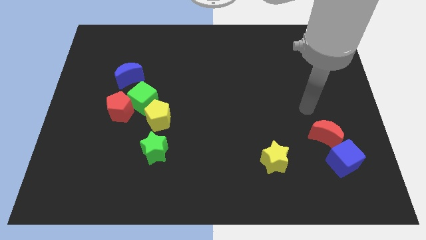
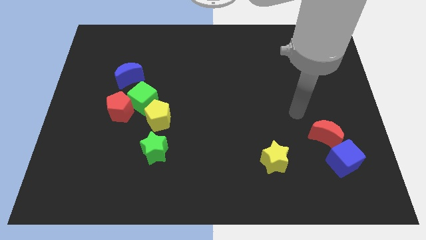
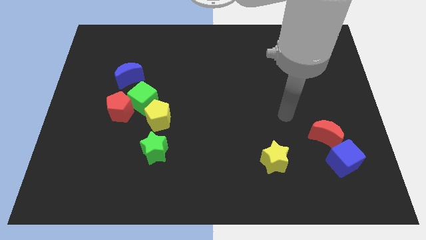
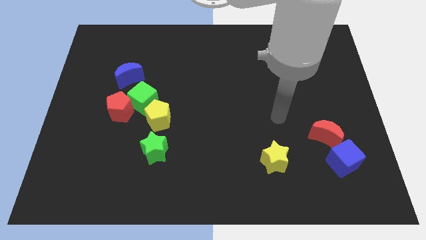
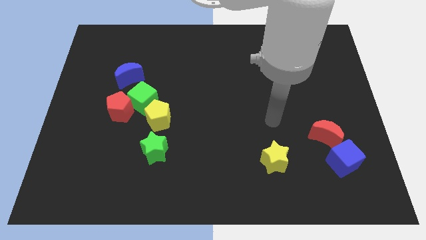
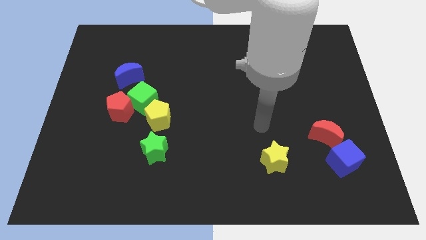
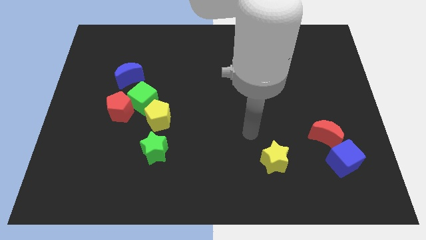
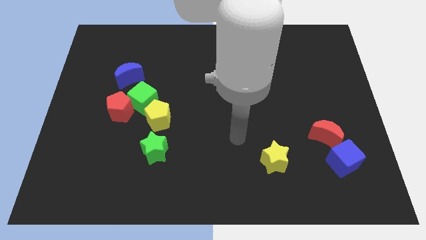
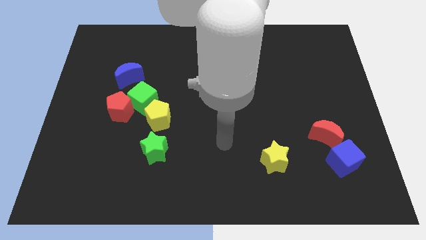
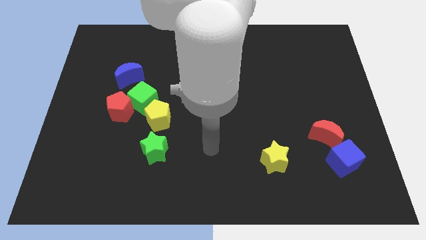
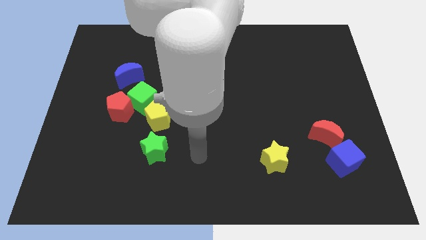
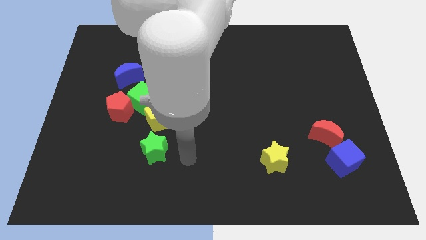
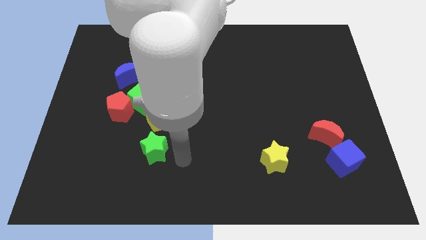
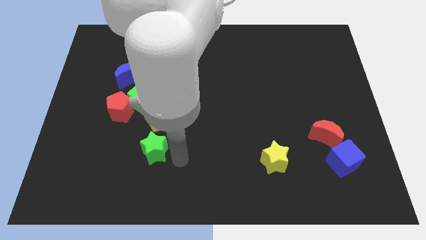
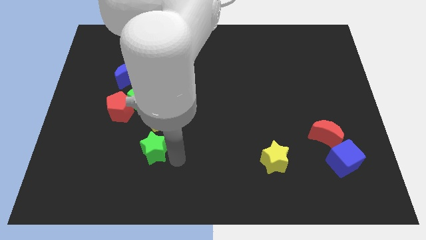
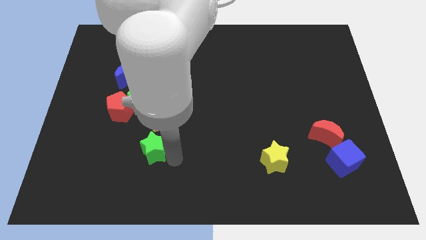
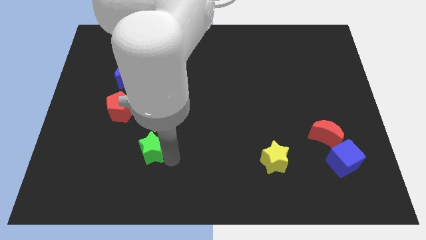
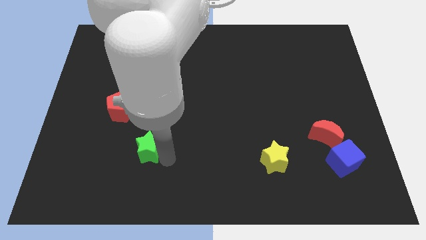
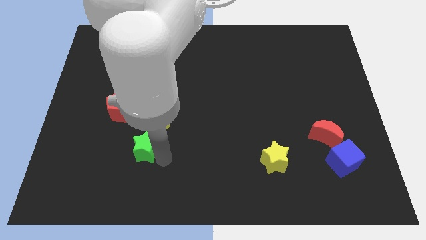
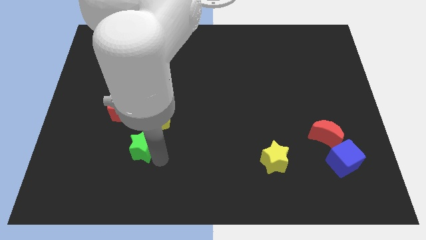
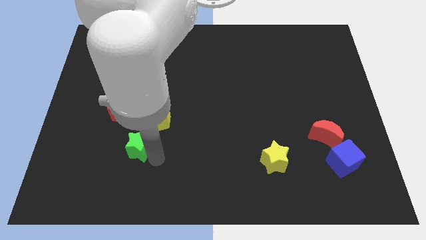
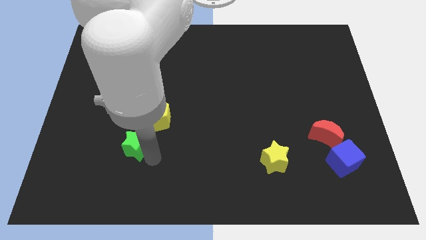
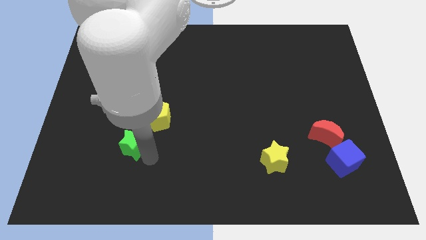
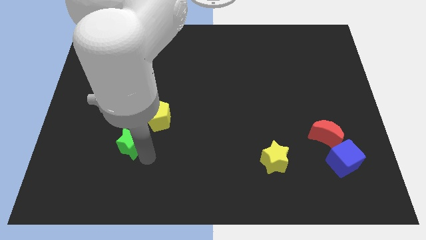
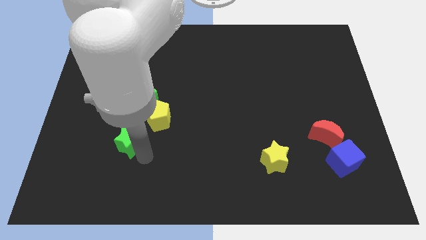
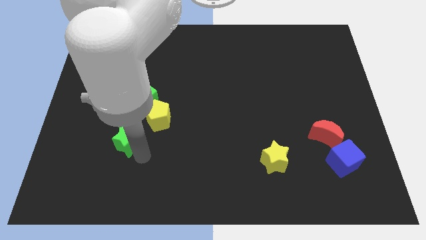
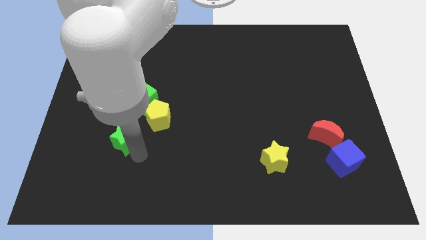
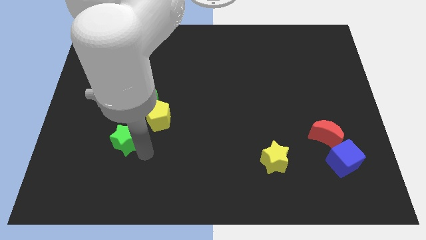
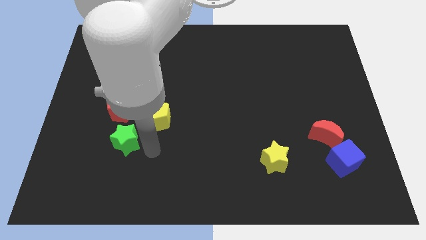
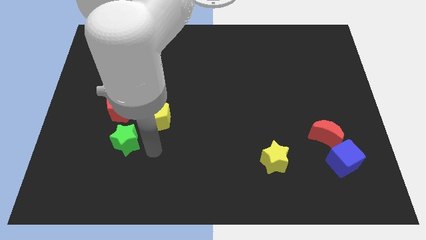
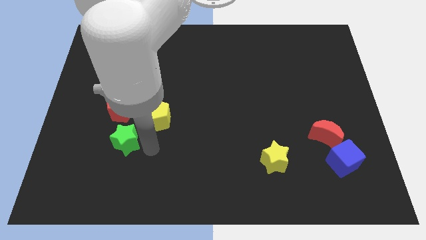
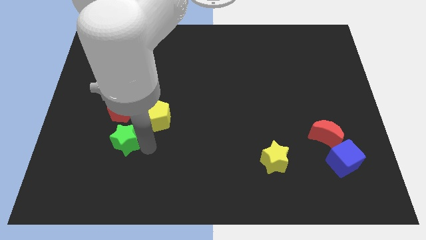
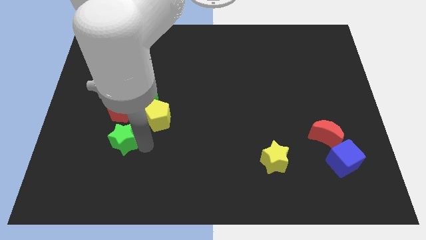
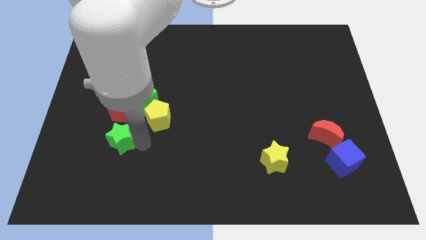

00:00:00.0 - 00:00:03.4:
slightly push the green star up and left diagonally

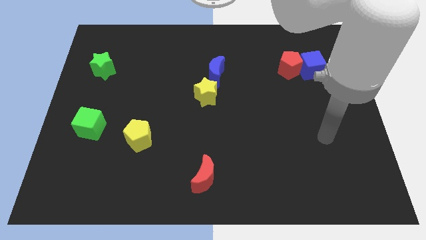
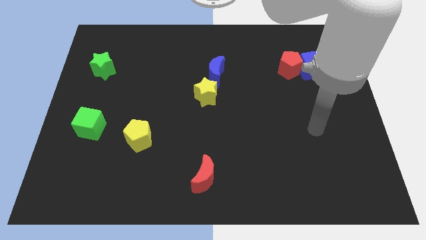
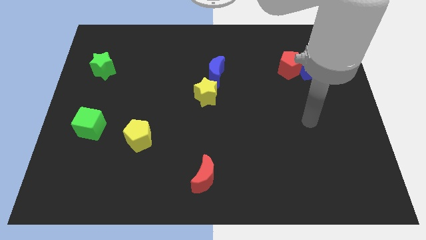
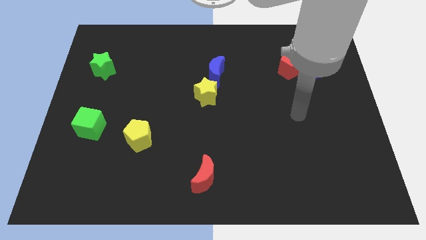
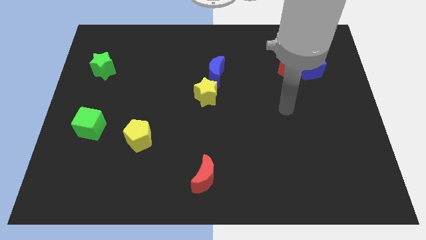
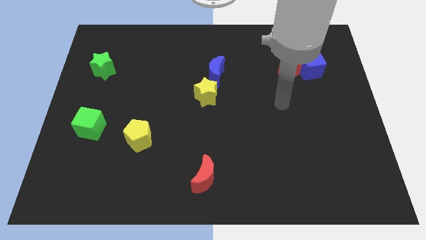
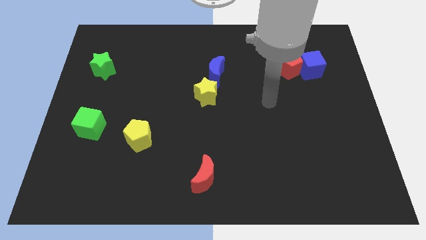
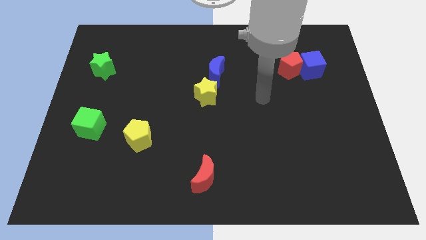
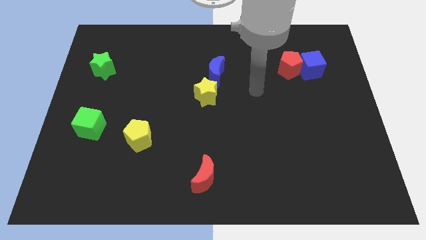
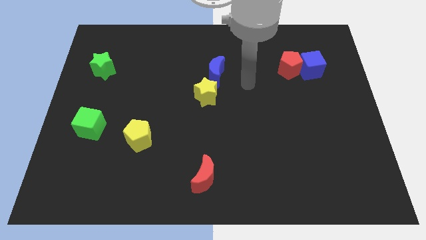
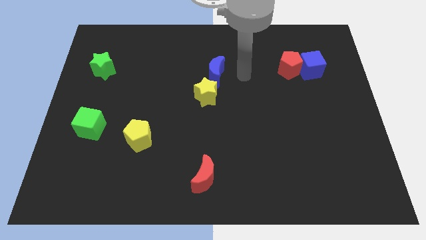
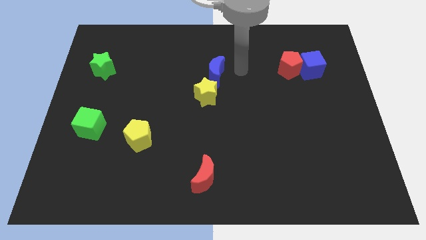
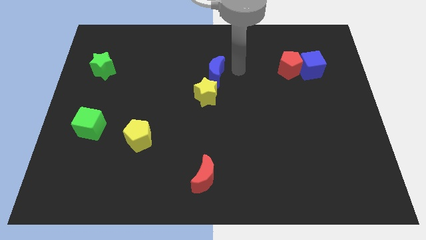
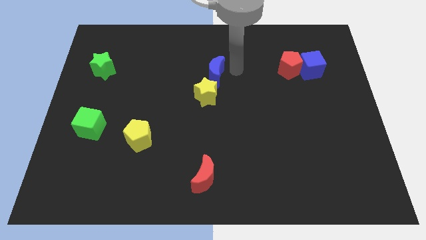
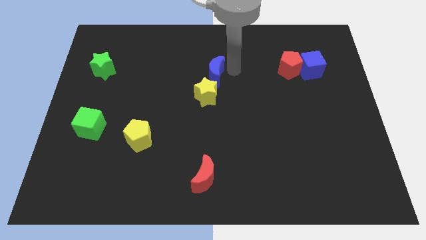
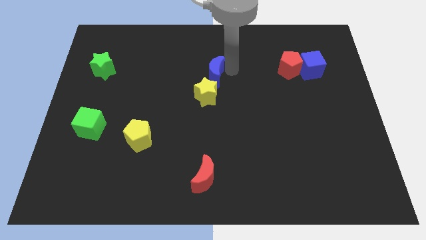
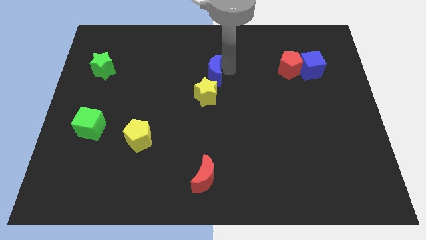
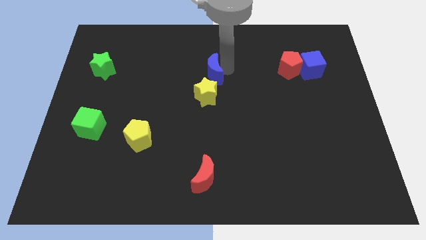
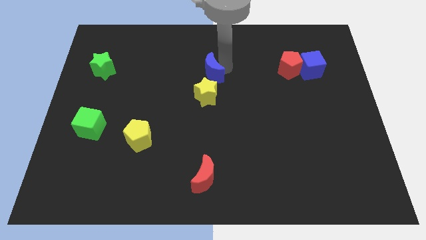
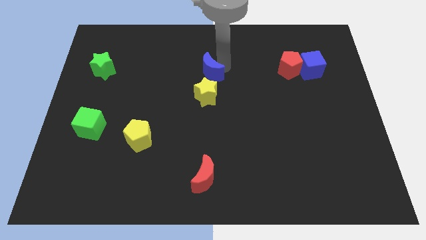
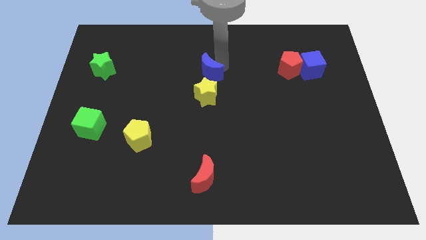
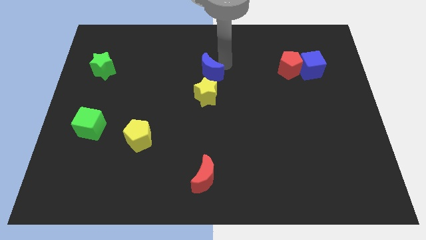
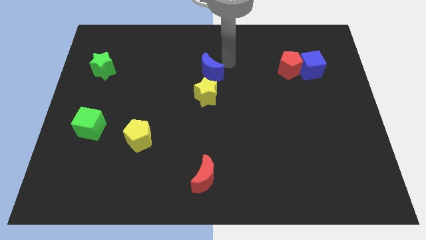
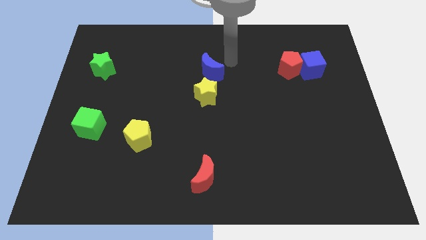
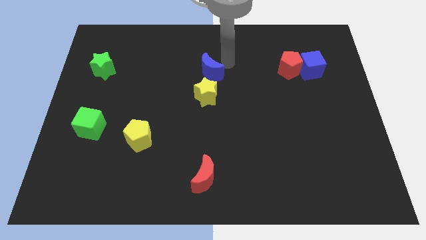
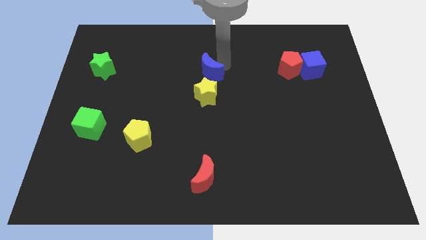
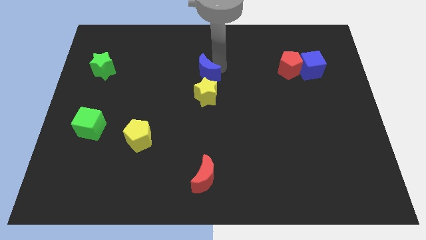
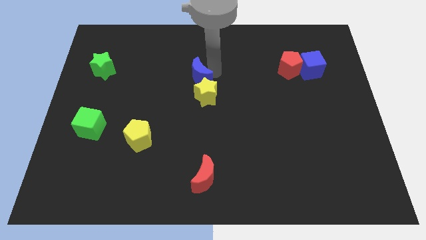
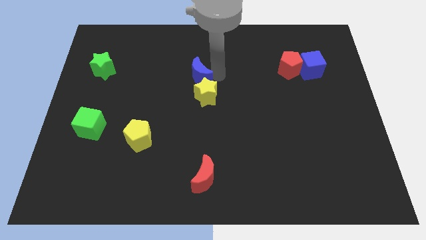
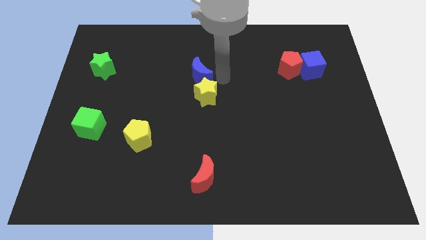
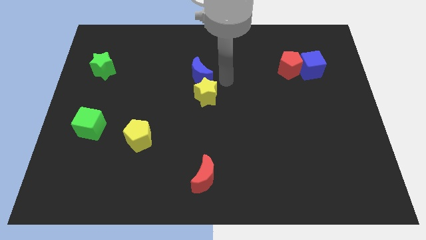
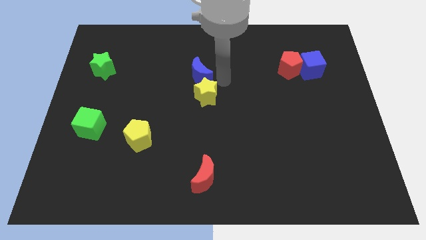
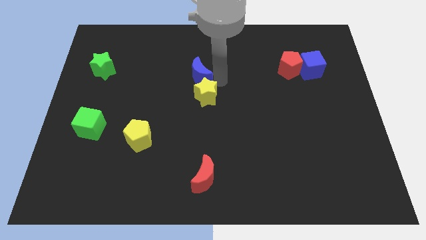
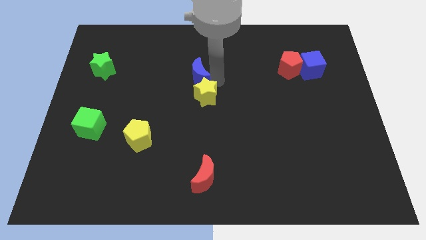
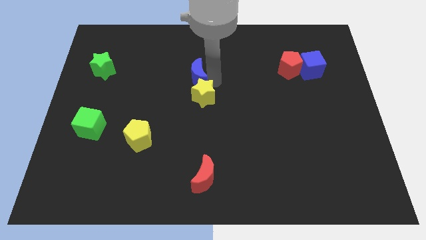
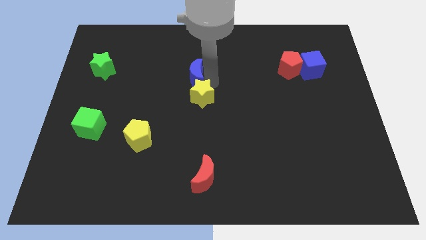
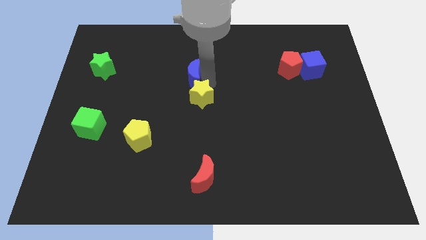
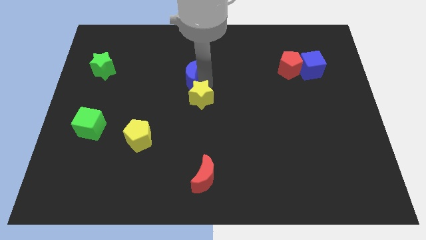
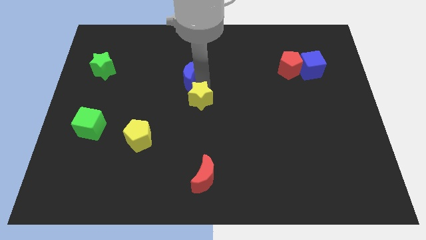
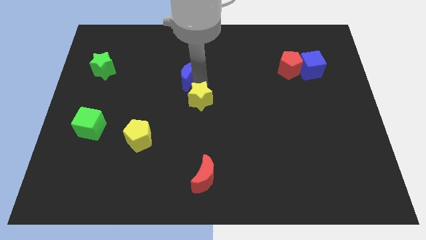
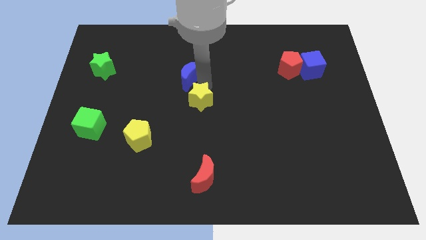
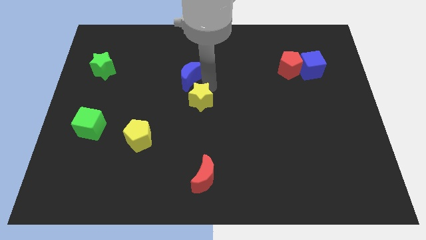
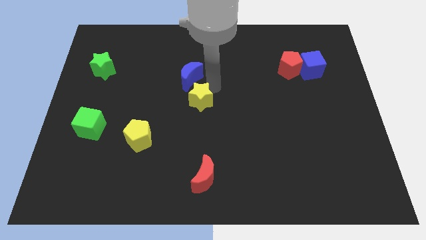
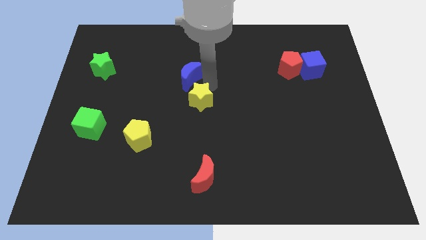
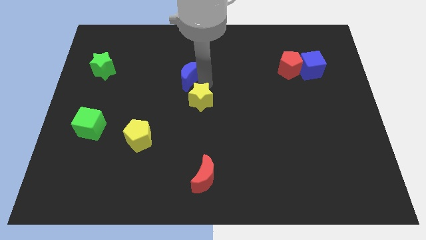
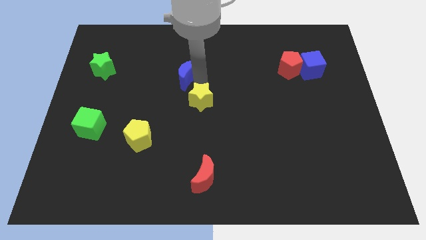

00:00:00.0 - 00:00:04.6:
slide the blue moon left a bit

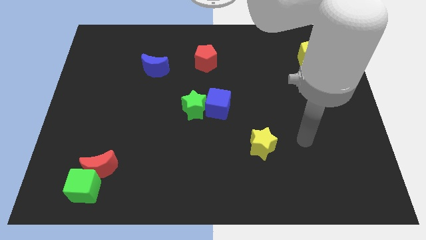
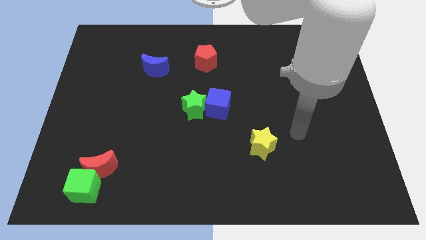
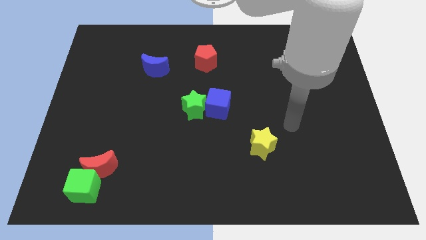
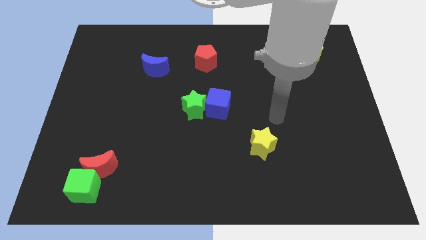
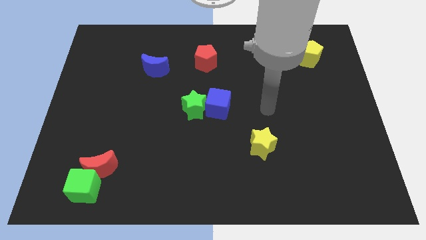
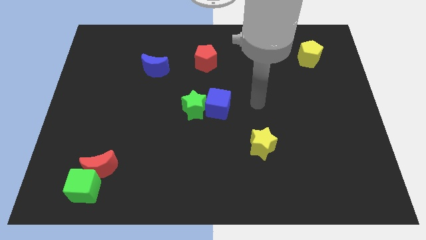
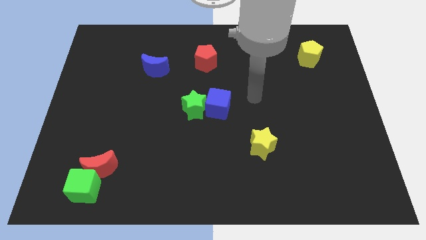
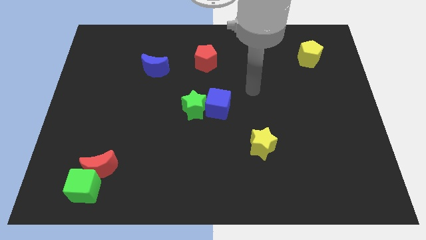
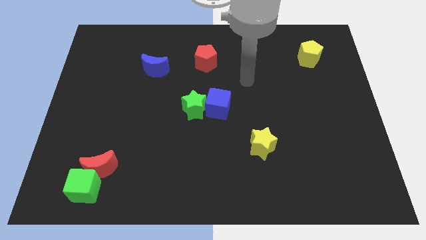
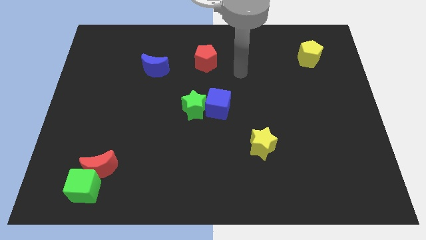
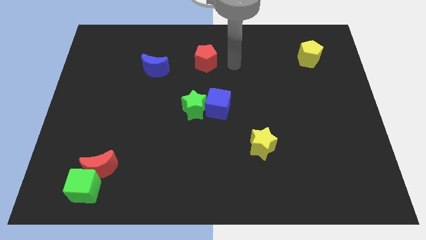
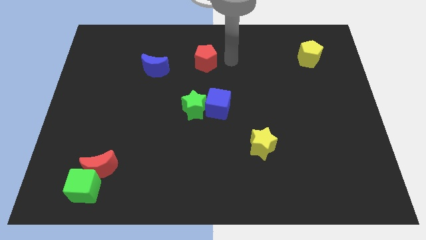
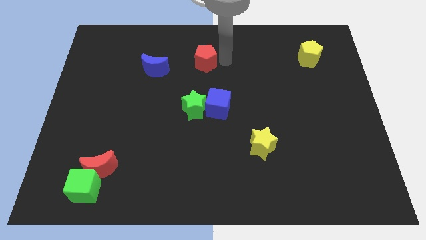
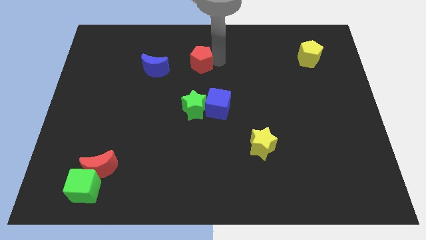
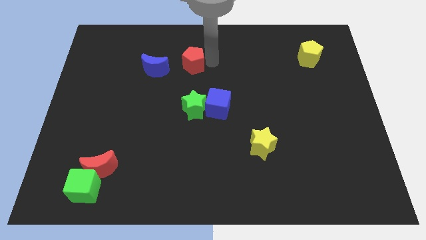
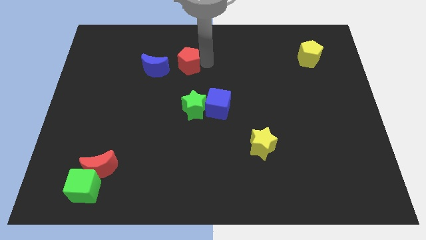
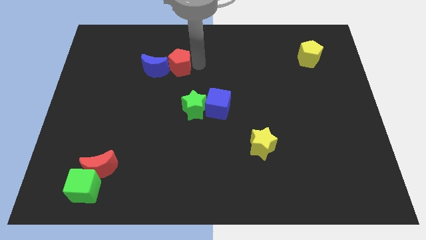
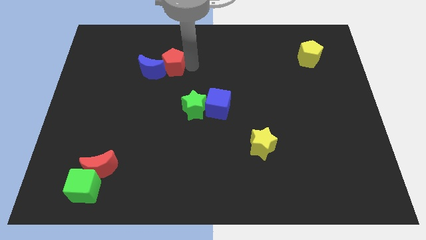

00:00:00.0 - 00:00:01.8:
slightly push the red pentagon left
